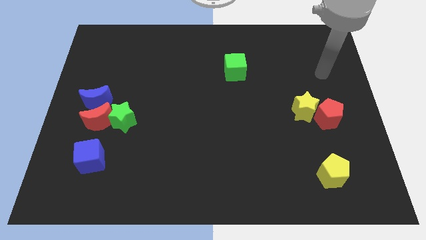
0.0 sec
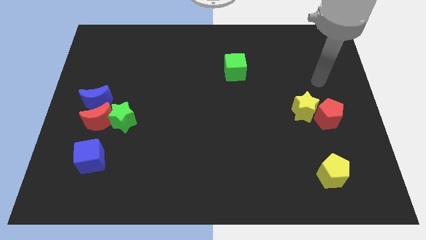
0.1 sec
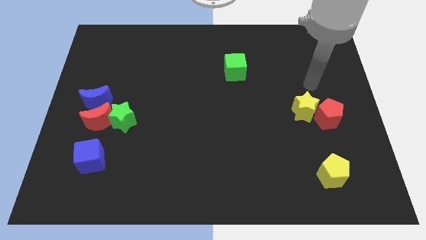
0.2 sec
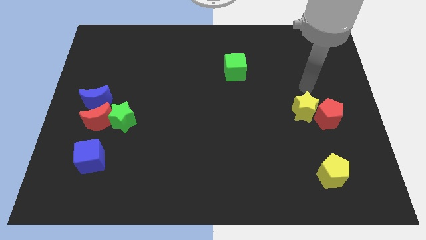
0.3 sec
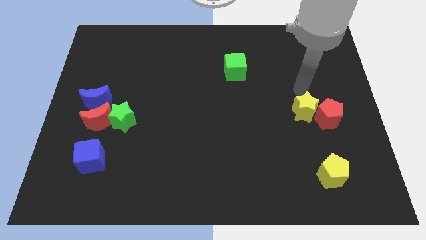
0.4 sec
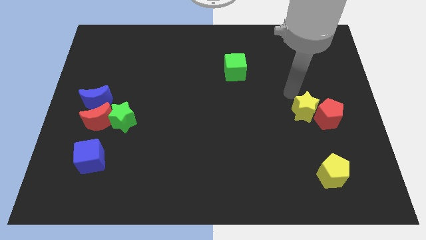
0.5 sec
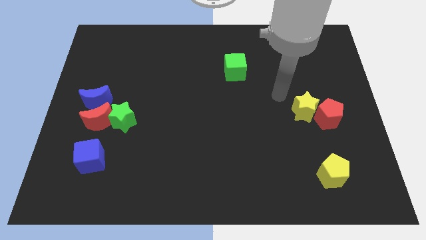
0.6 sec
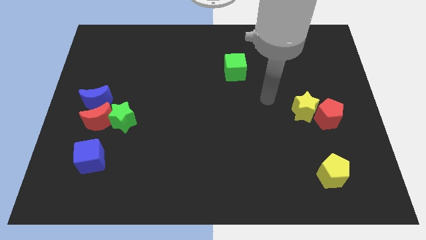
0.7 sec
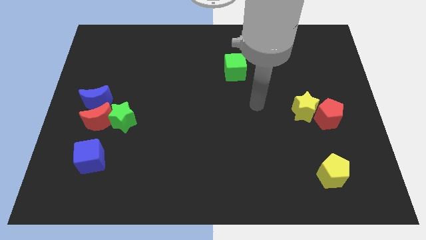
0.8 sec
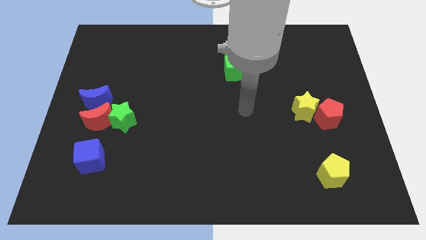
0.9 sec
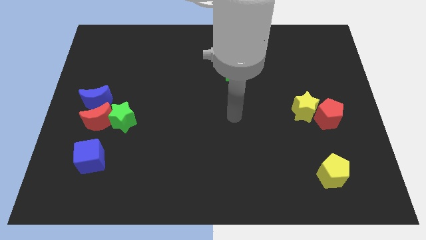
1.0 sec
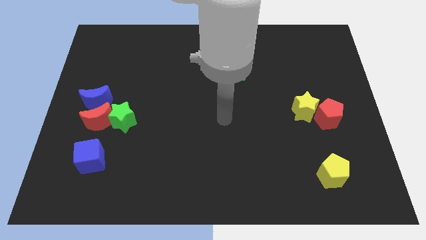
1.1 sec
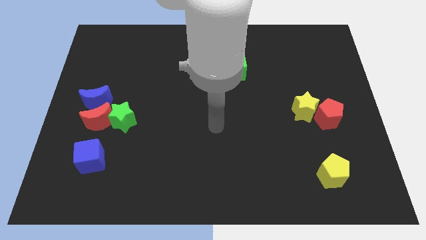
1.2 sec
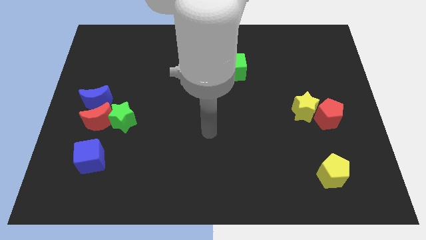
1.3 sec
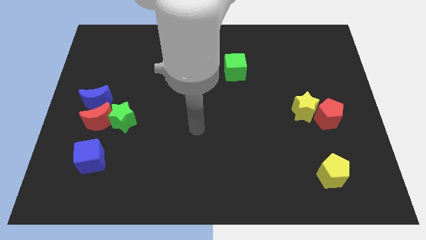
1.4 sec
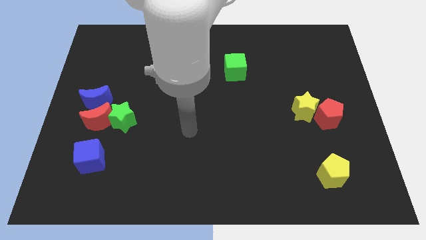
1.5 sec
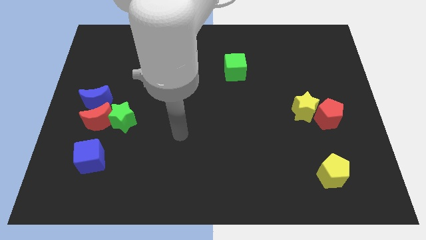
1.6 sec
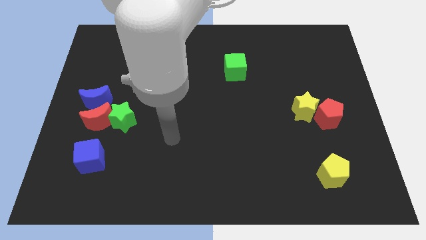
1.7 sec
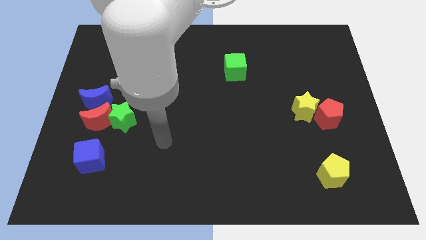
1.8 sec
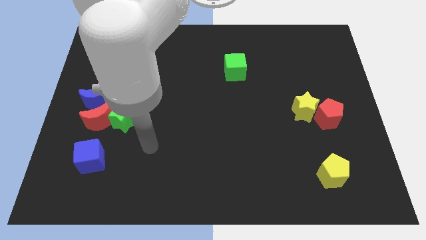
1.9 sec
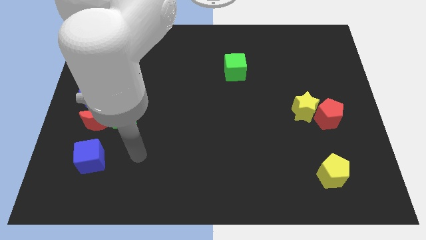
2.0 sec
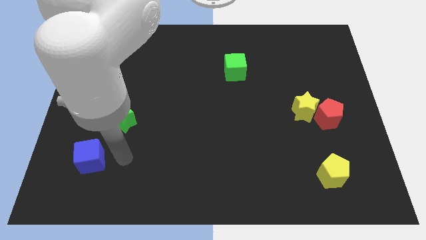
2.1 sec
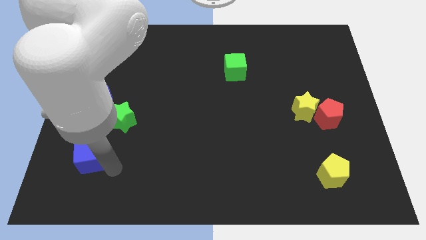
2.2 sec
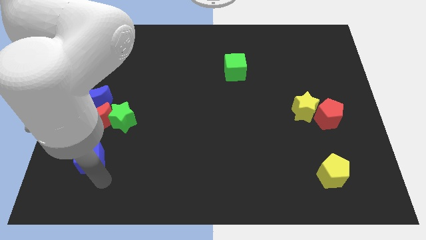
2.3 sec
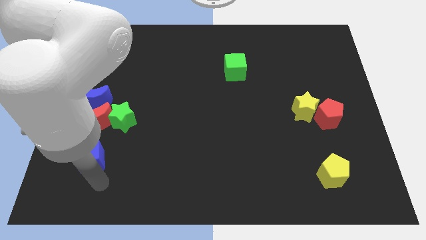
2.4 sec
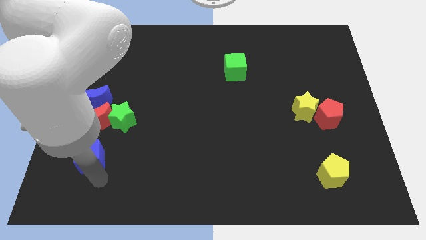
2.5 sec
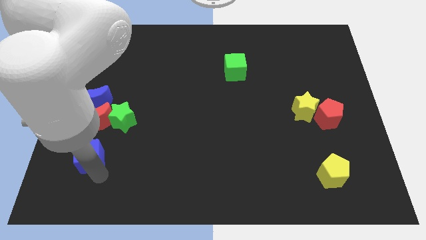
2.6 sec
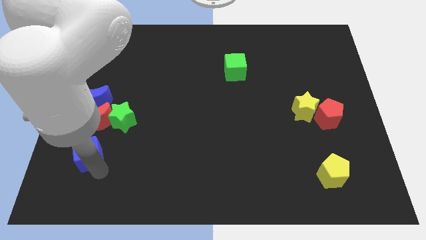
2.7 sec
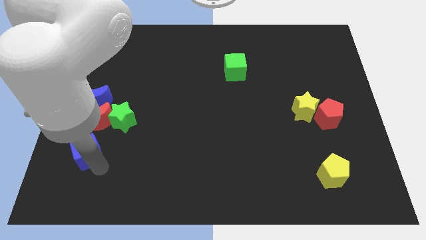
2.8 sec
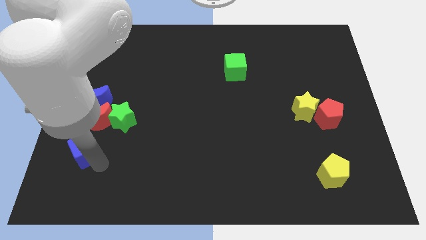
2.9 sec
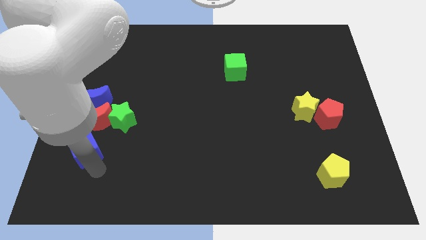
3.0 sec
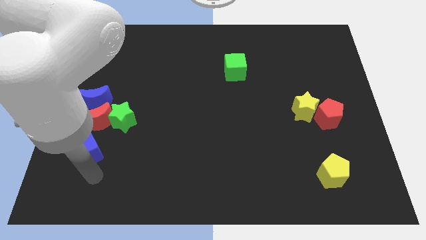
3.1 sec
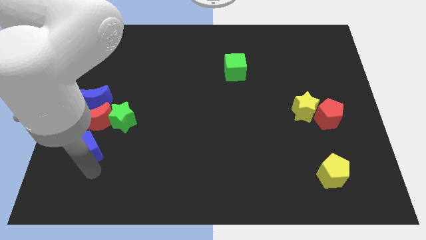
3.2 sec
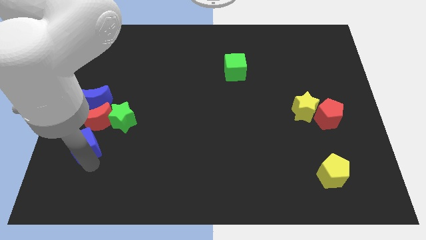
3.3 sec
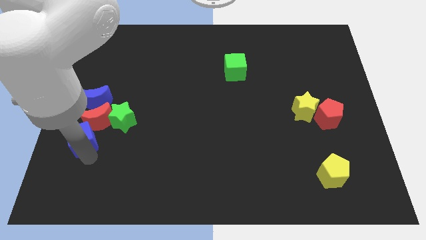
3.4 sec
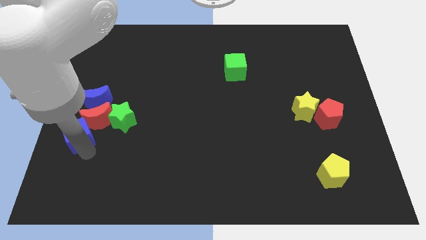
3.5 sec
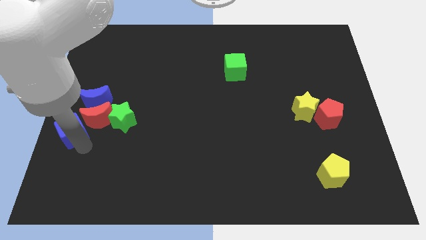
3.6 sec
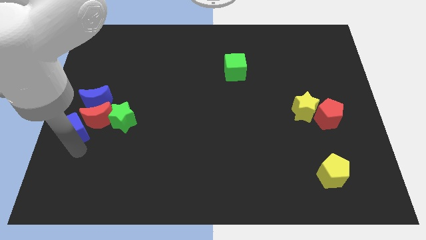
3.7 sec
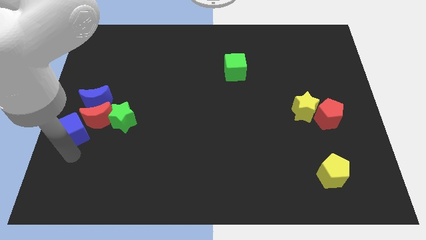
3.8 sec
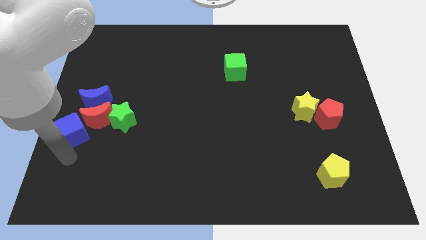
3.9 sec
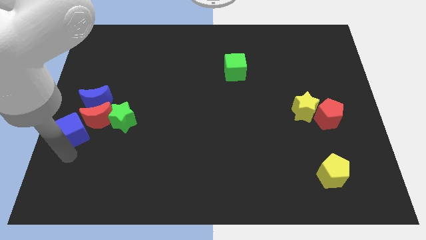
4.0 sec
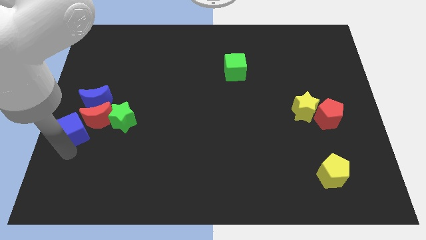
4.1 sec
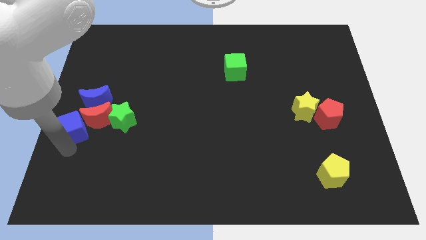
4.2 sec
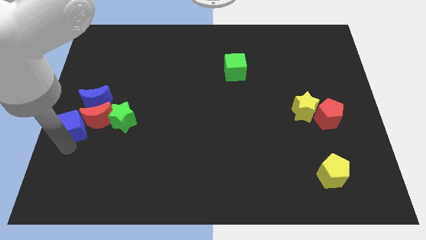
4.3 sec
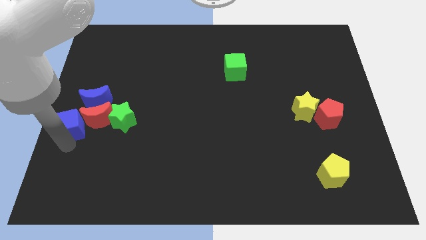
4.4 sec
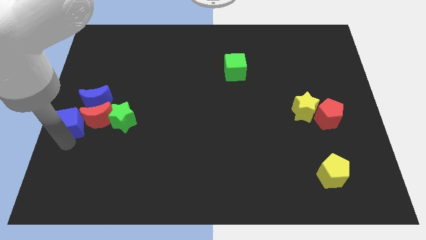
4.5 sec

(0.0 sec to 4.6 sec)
slightly push the blue cube up

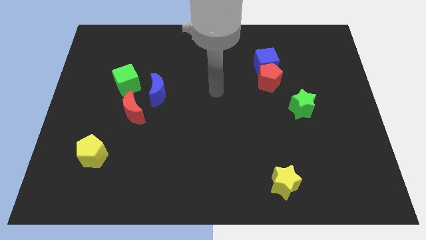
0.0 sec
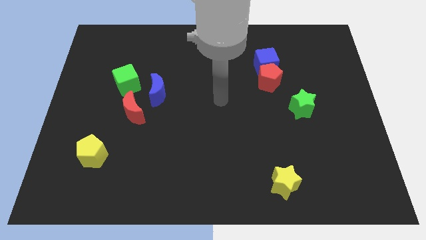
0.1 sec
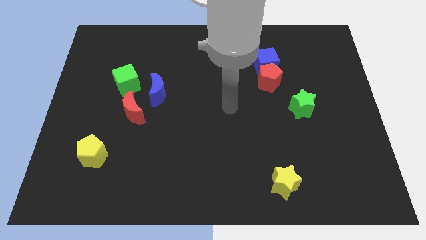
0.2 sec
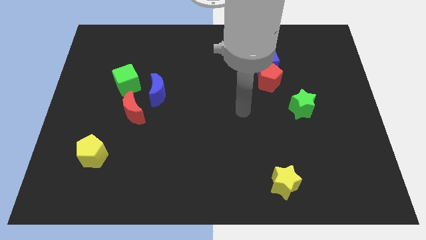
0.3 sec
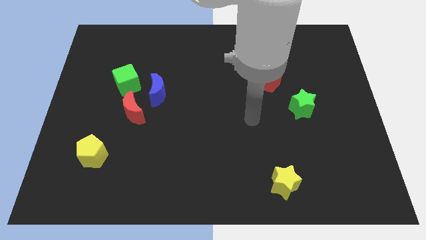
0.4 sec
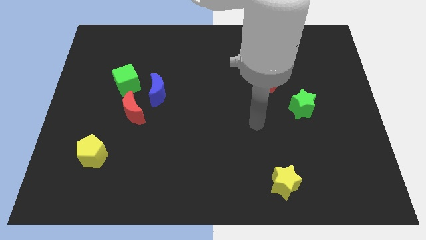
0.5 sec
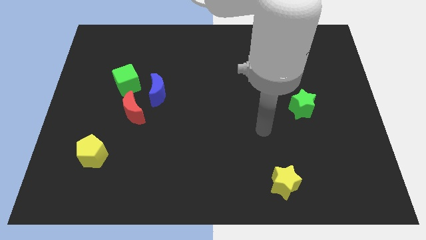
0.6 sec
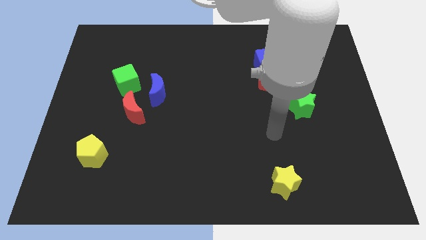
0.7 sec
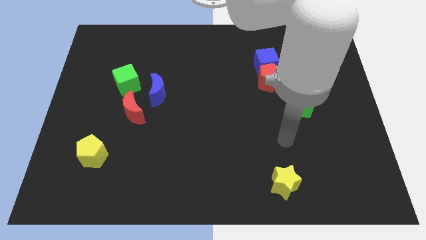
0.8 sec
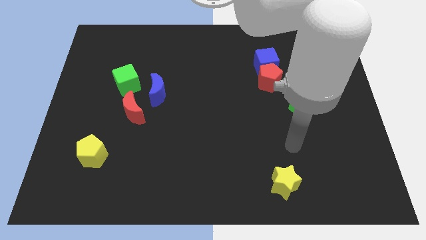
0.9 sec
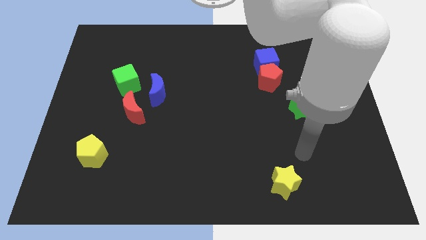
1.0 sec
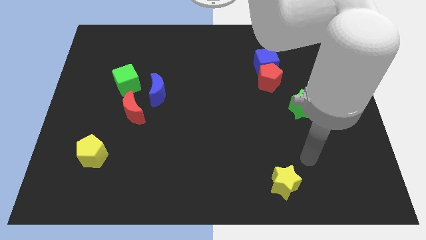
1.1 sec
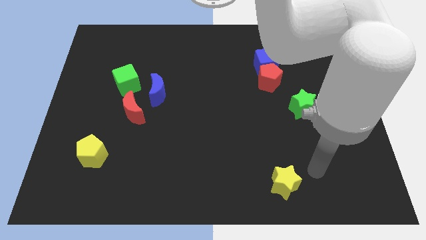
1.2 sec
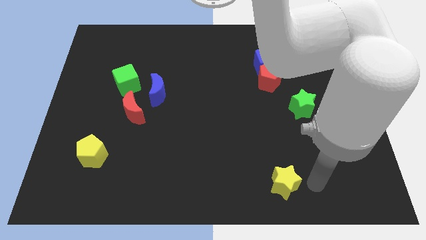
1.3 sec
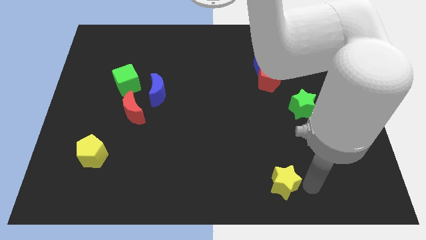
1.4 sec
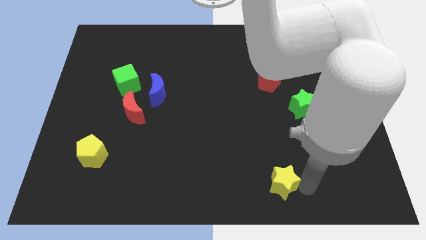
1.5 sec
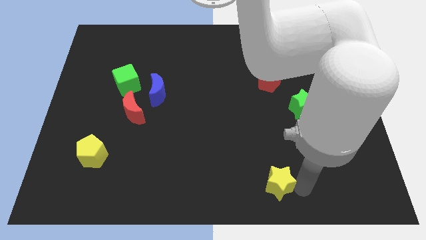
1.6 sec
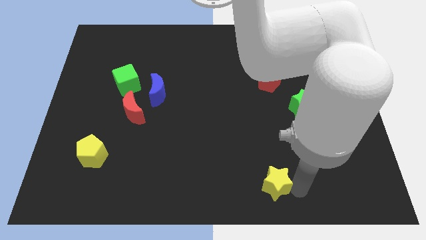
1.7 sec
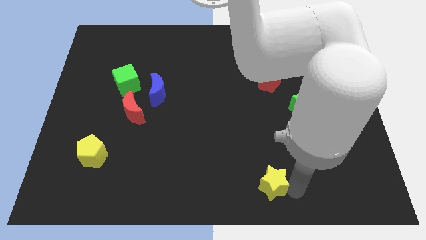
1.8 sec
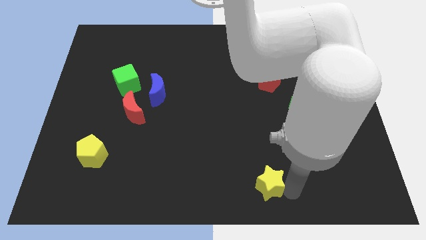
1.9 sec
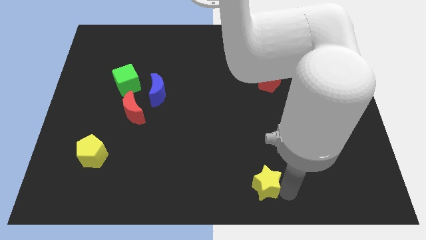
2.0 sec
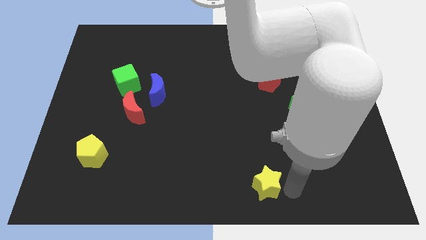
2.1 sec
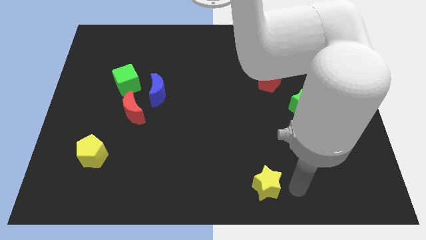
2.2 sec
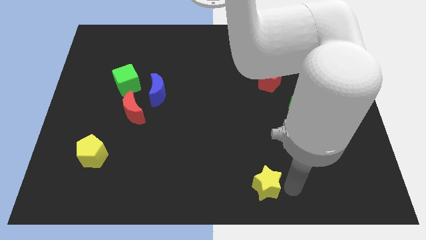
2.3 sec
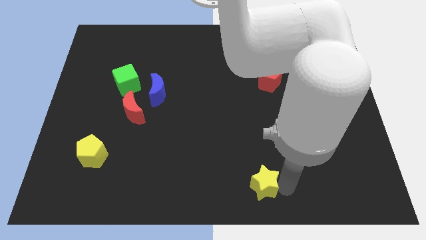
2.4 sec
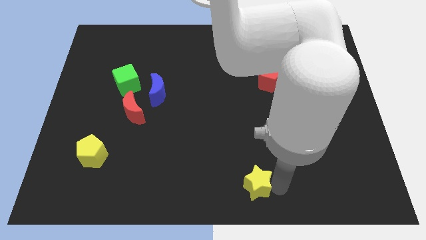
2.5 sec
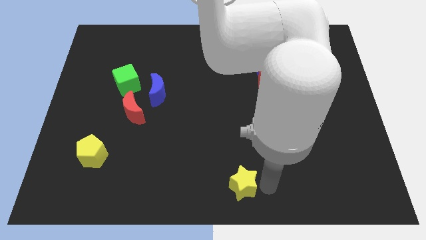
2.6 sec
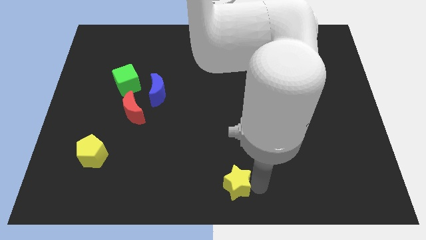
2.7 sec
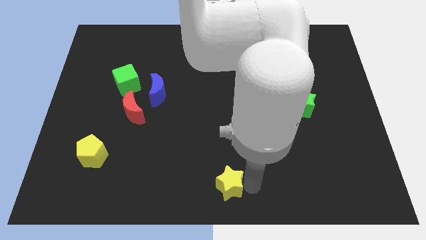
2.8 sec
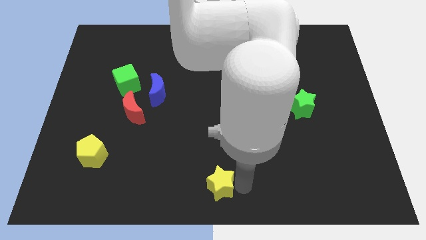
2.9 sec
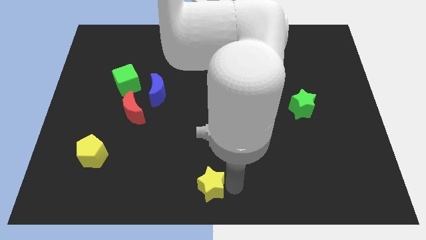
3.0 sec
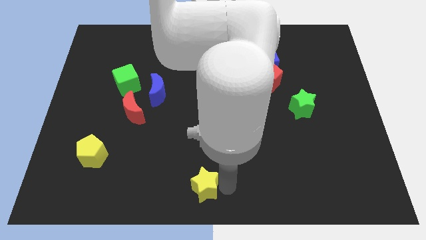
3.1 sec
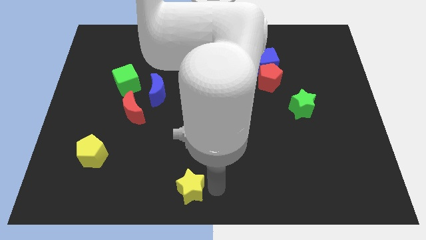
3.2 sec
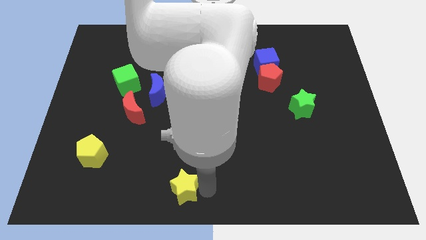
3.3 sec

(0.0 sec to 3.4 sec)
move the yellow star to the left
